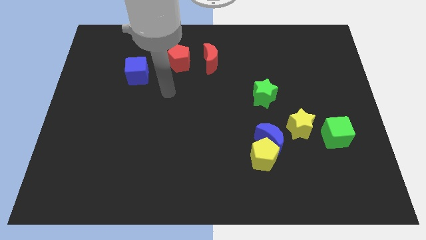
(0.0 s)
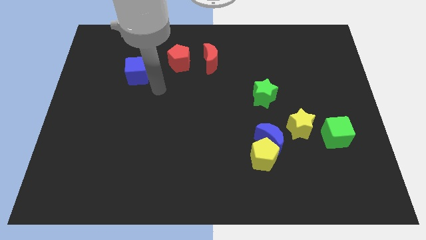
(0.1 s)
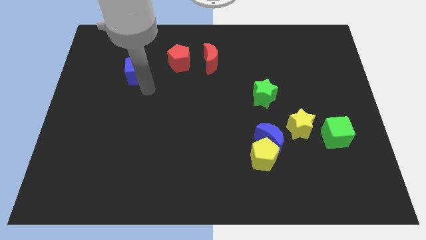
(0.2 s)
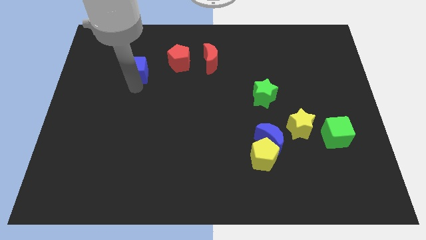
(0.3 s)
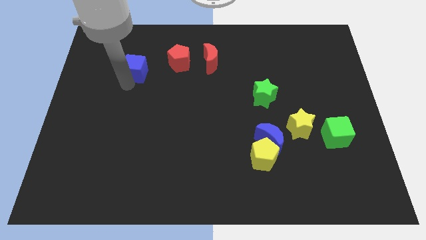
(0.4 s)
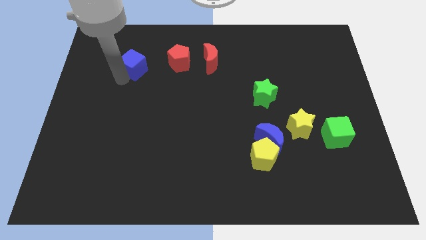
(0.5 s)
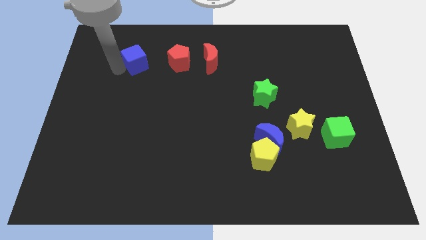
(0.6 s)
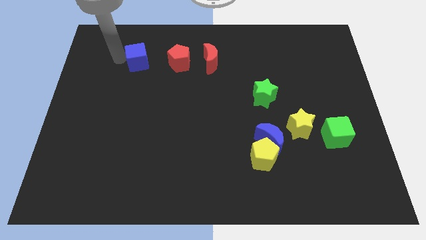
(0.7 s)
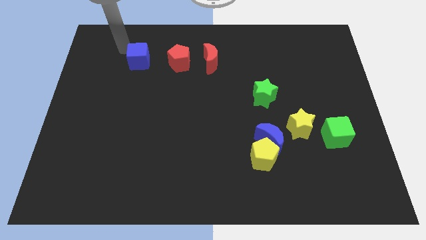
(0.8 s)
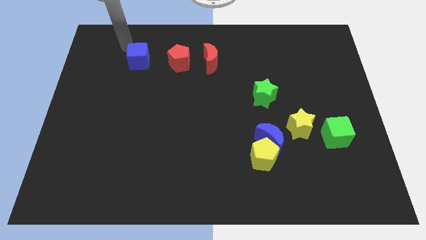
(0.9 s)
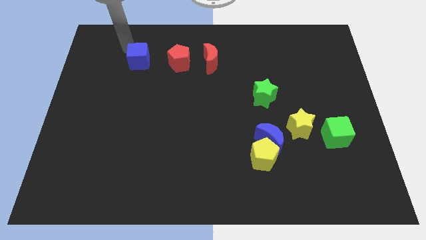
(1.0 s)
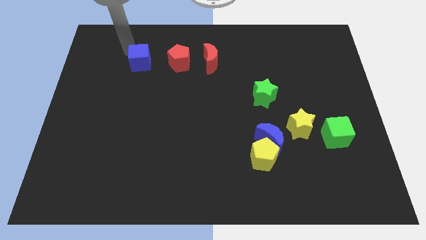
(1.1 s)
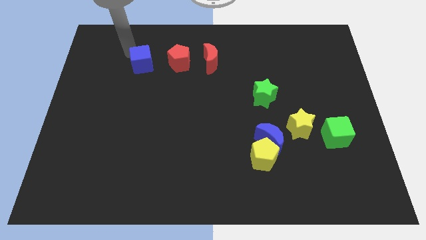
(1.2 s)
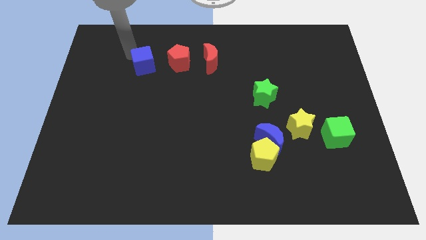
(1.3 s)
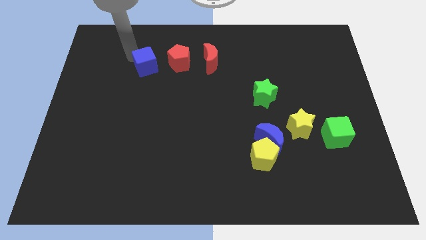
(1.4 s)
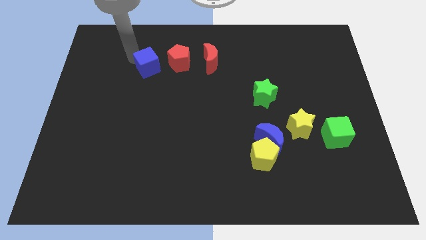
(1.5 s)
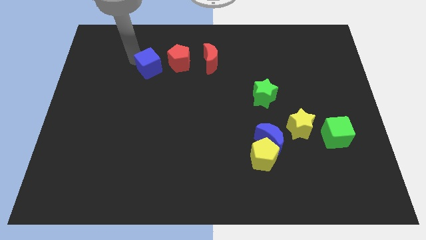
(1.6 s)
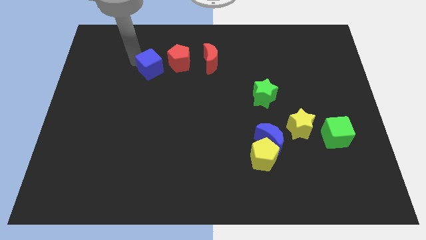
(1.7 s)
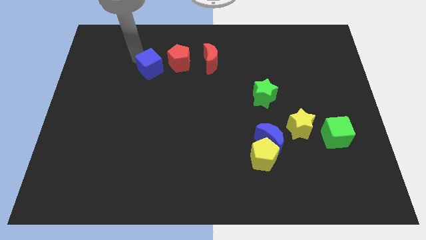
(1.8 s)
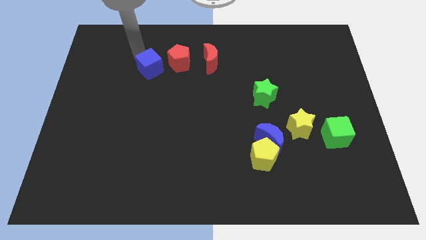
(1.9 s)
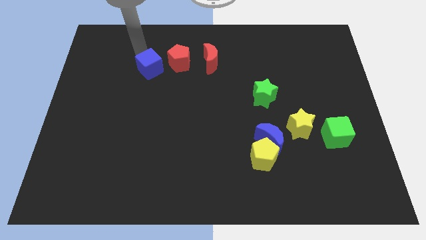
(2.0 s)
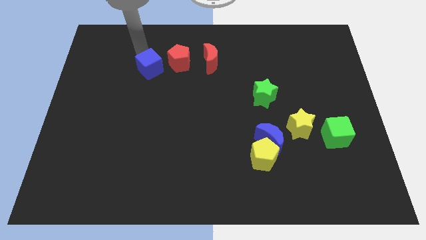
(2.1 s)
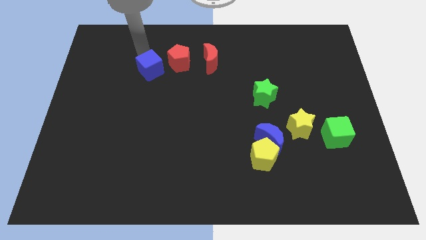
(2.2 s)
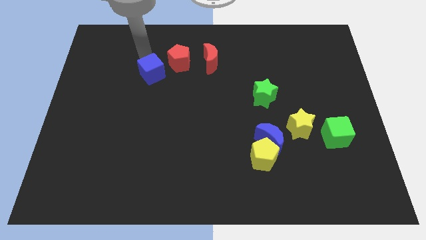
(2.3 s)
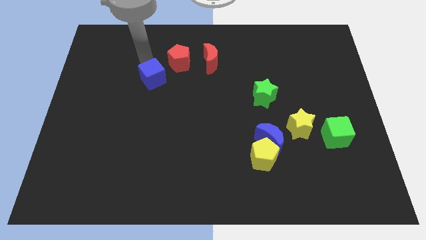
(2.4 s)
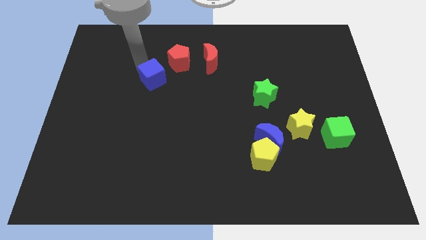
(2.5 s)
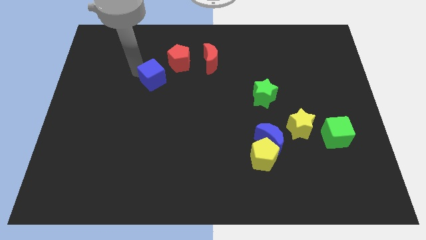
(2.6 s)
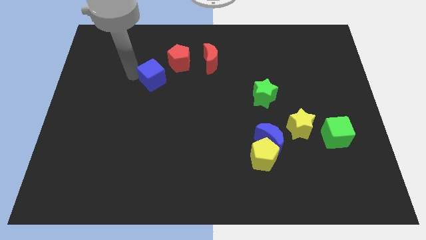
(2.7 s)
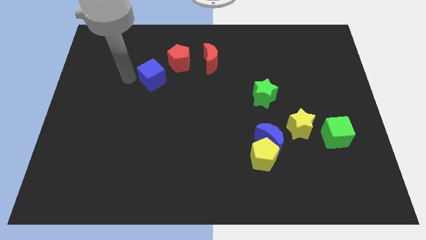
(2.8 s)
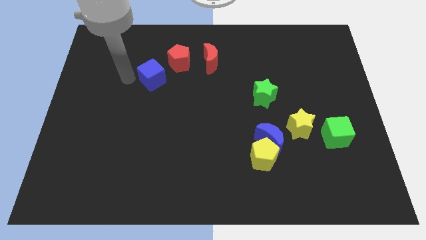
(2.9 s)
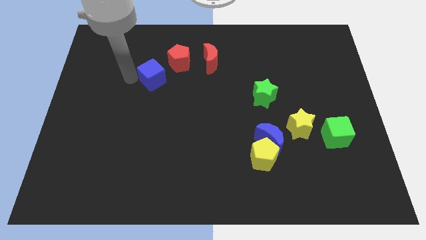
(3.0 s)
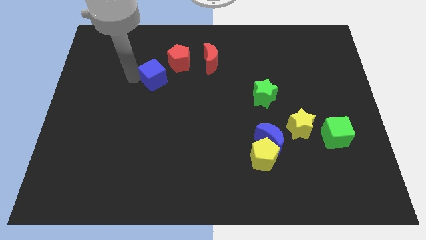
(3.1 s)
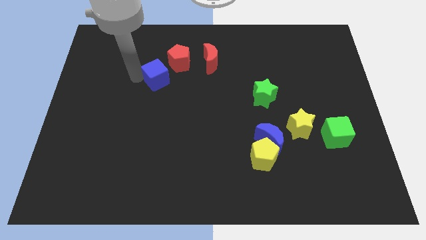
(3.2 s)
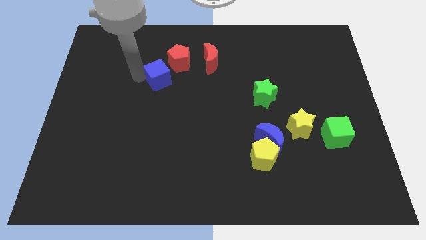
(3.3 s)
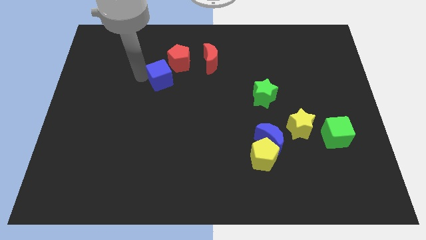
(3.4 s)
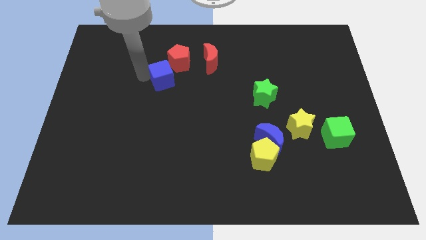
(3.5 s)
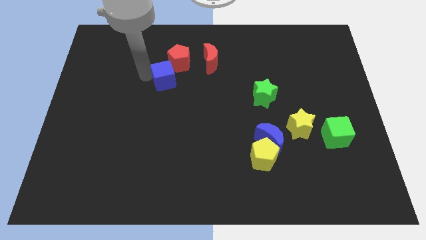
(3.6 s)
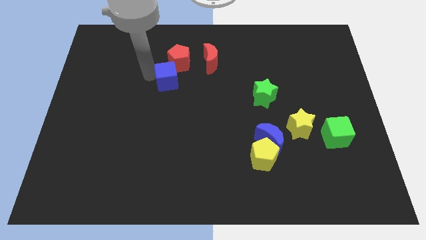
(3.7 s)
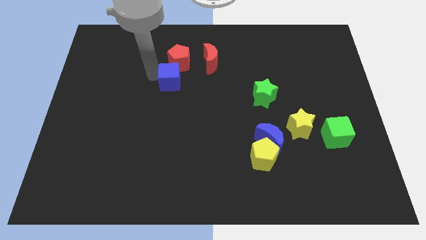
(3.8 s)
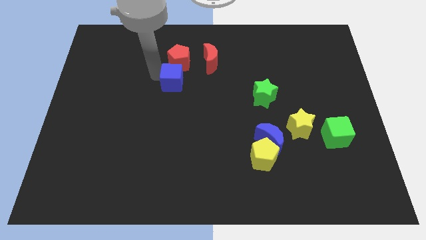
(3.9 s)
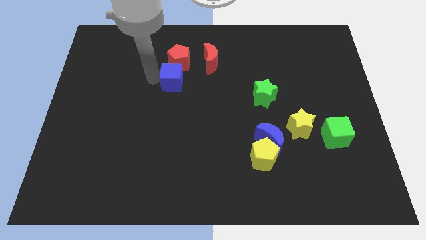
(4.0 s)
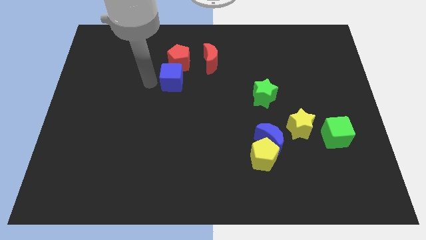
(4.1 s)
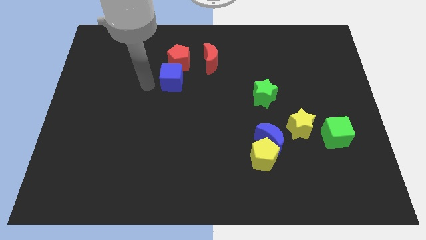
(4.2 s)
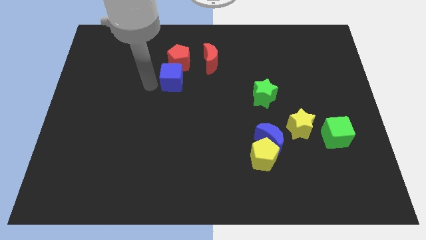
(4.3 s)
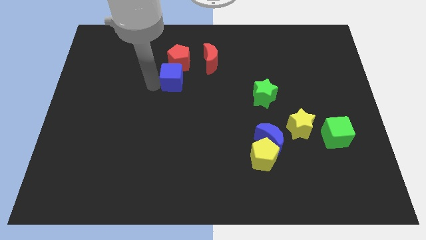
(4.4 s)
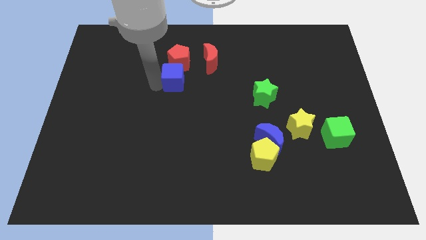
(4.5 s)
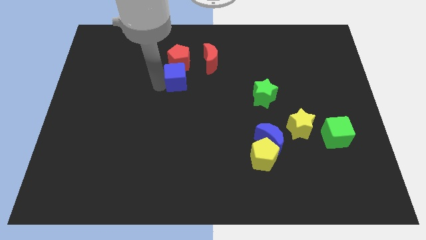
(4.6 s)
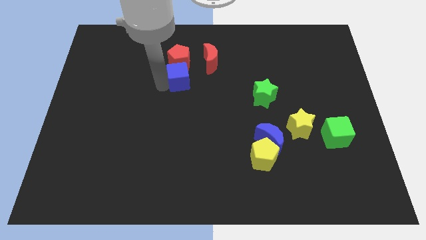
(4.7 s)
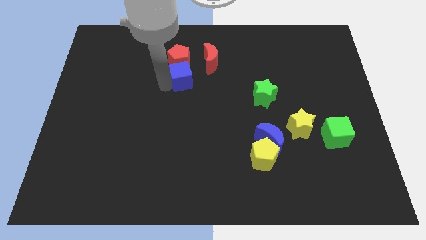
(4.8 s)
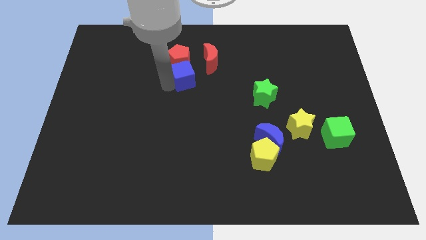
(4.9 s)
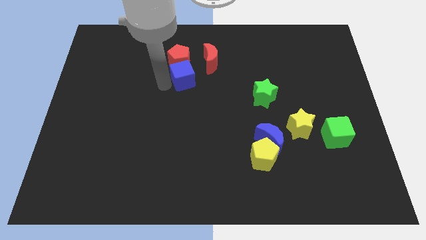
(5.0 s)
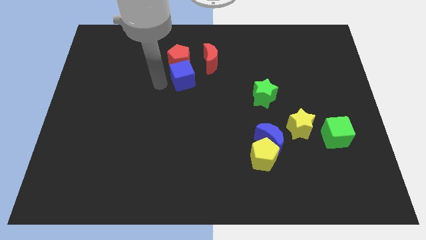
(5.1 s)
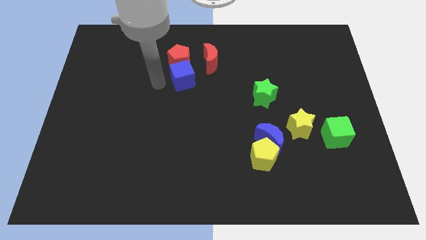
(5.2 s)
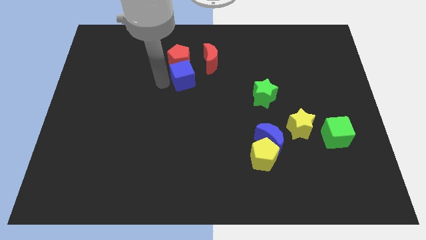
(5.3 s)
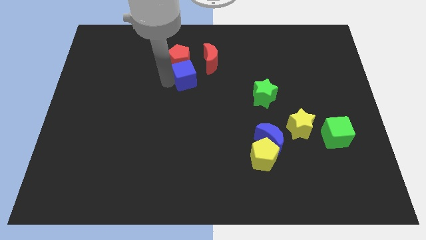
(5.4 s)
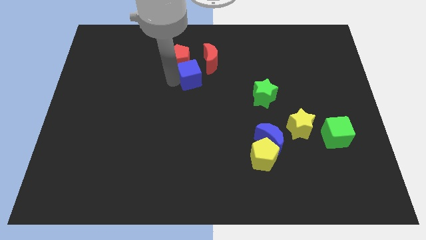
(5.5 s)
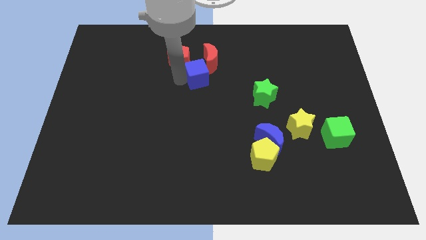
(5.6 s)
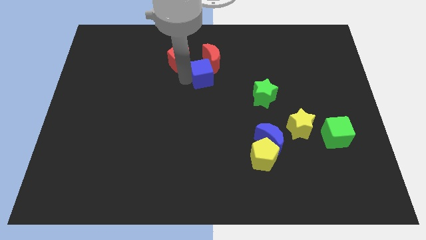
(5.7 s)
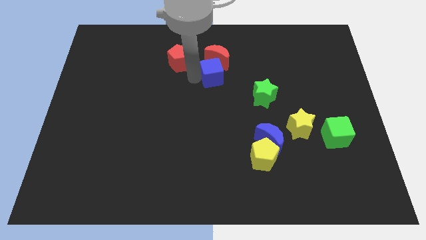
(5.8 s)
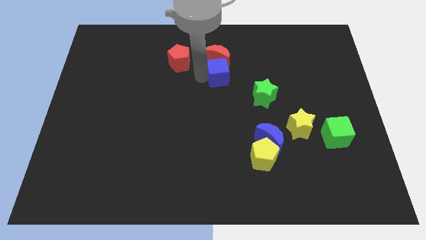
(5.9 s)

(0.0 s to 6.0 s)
slide the blue cube right

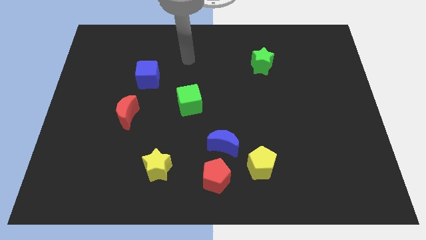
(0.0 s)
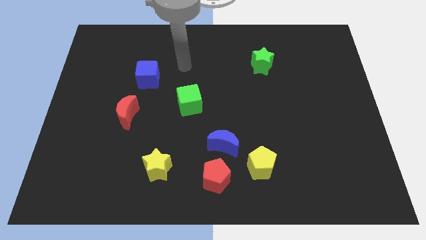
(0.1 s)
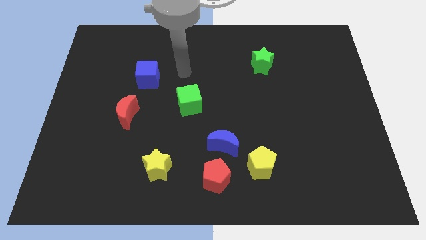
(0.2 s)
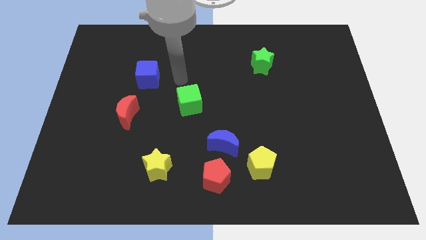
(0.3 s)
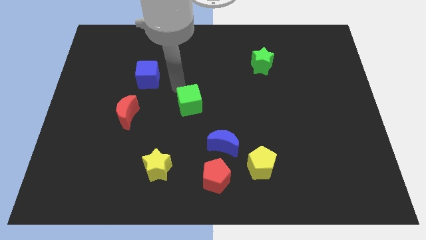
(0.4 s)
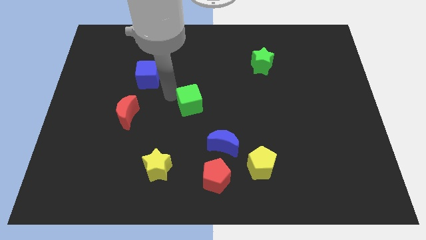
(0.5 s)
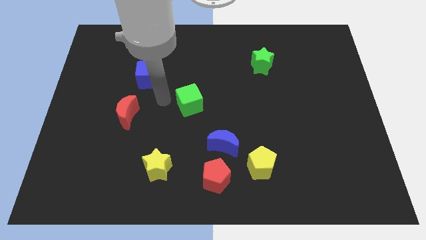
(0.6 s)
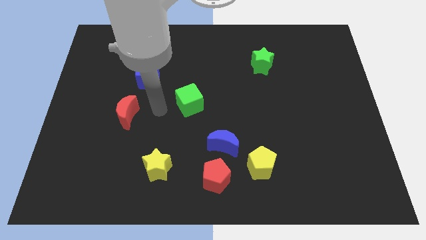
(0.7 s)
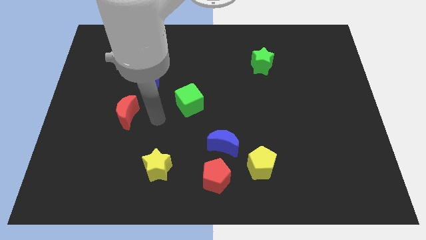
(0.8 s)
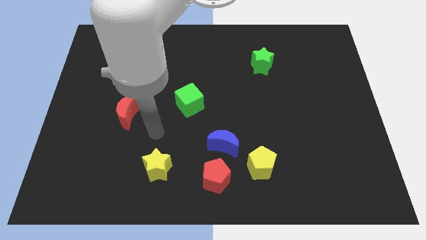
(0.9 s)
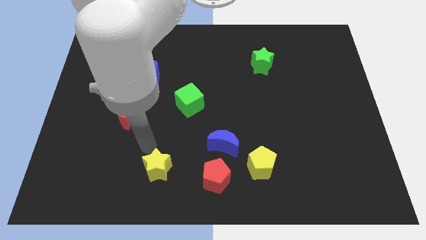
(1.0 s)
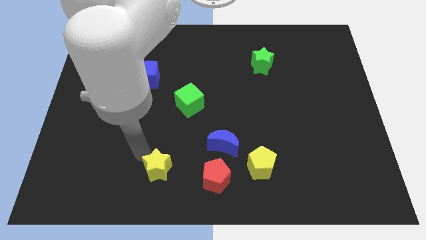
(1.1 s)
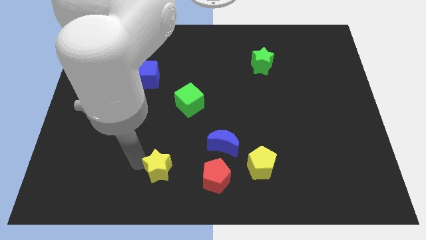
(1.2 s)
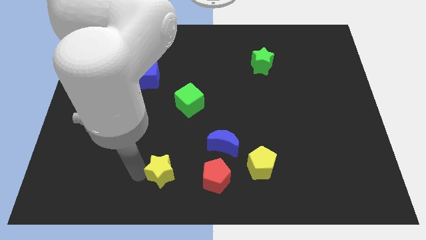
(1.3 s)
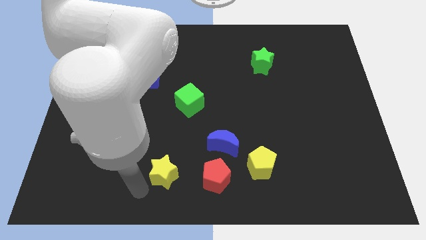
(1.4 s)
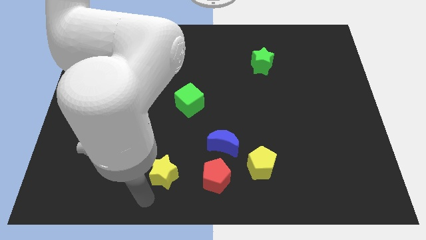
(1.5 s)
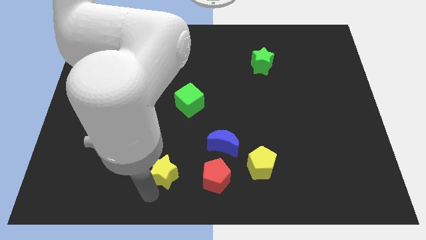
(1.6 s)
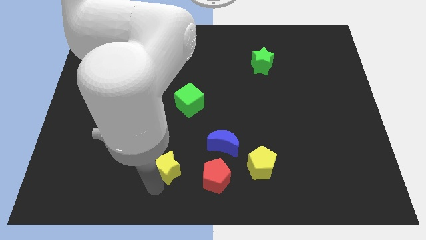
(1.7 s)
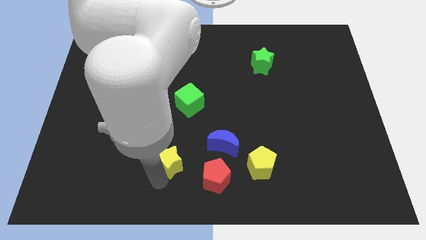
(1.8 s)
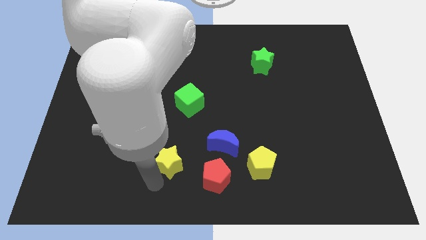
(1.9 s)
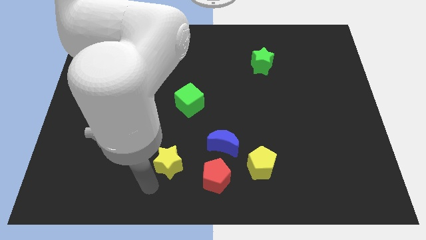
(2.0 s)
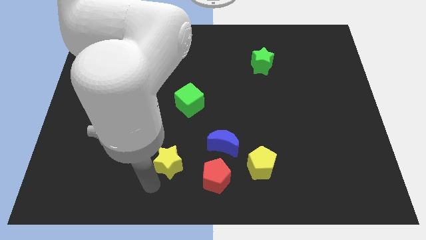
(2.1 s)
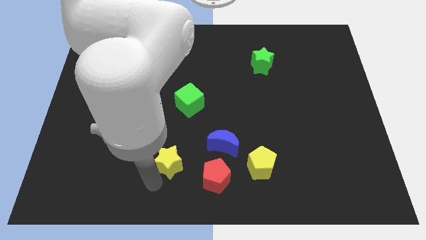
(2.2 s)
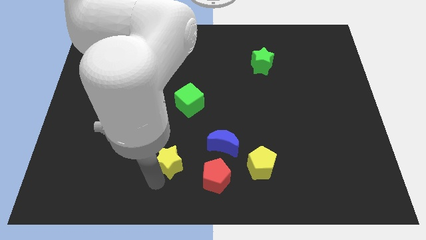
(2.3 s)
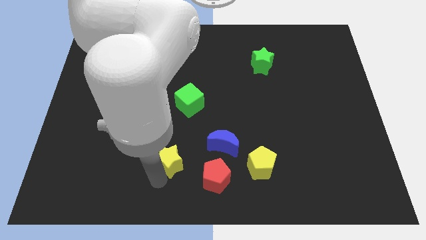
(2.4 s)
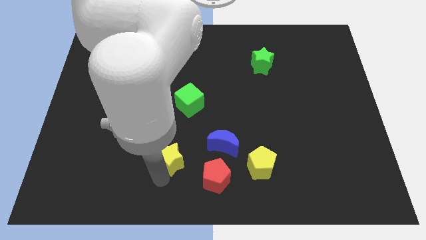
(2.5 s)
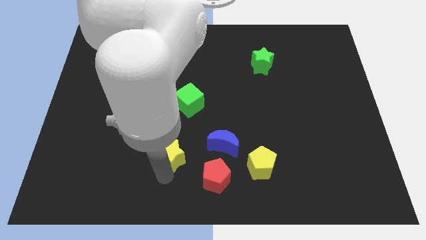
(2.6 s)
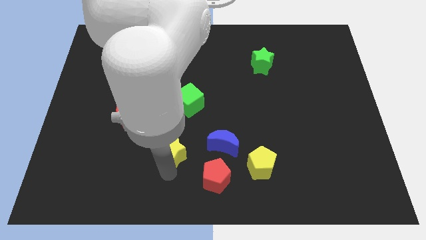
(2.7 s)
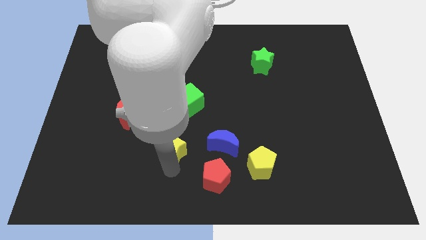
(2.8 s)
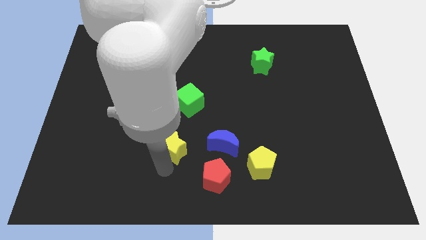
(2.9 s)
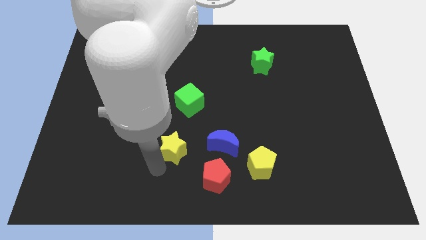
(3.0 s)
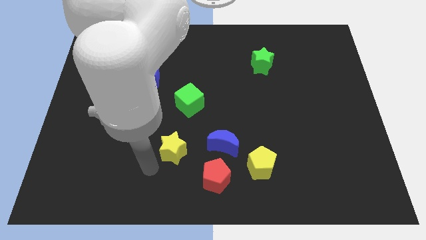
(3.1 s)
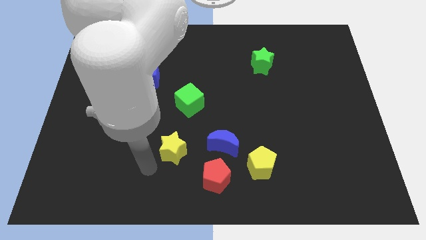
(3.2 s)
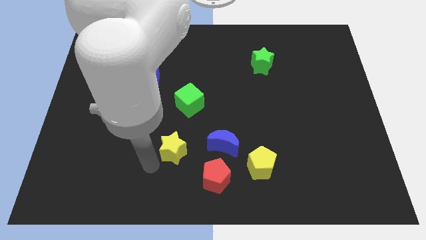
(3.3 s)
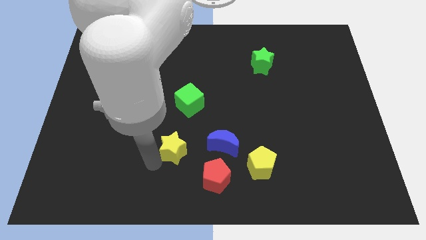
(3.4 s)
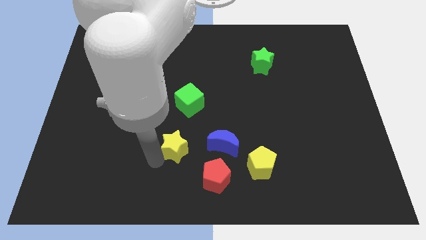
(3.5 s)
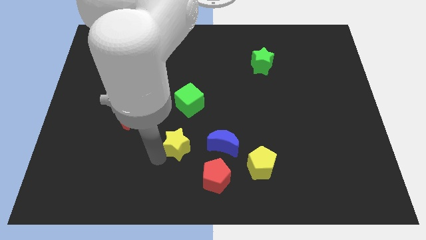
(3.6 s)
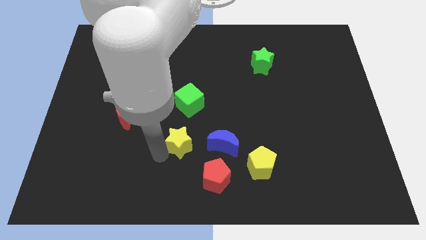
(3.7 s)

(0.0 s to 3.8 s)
push the yellow star upwards and right a bit
